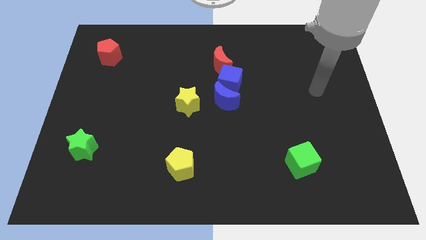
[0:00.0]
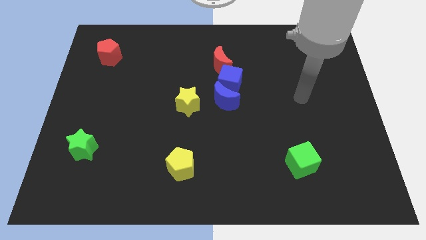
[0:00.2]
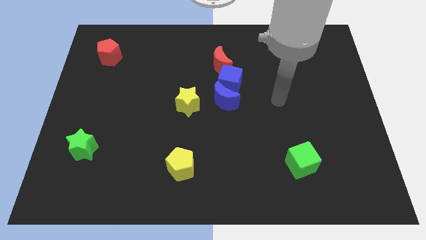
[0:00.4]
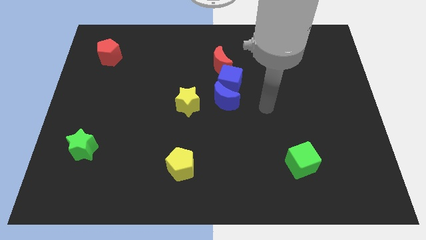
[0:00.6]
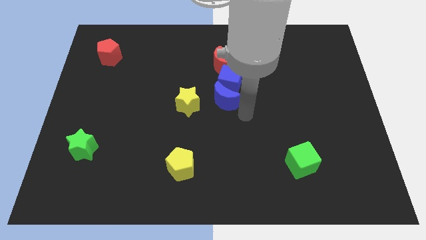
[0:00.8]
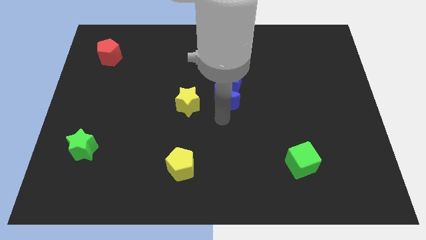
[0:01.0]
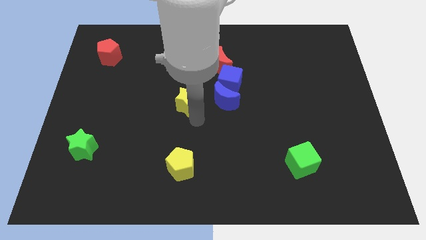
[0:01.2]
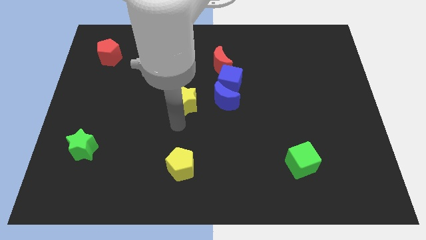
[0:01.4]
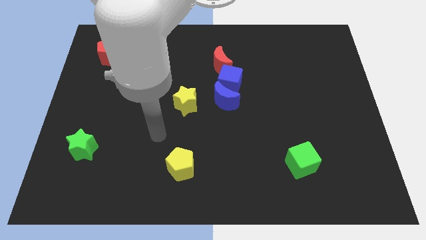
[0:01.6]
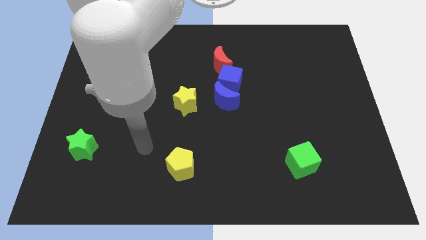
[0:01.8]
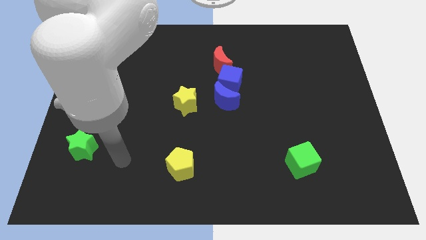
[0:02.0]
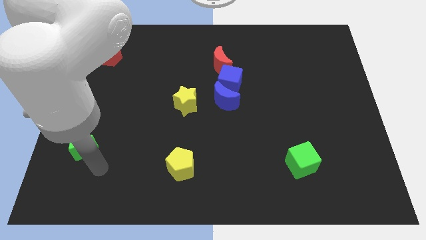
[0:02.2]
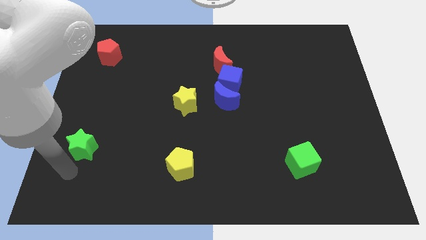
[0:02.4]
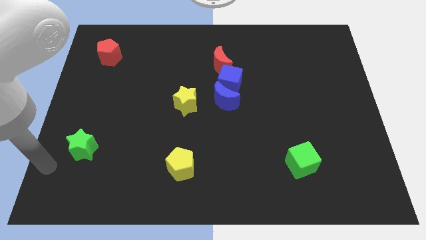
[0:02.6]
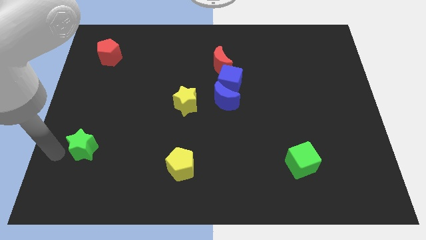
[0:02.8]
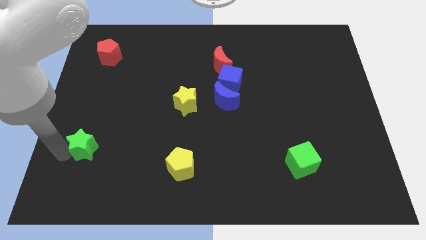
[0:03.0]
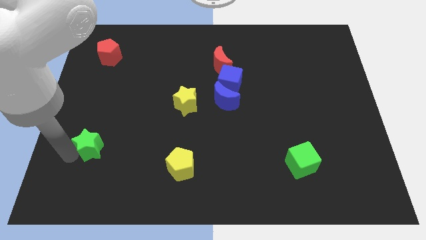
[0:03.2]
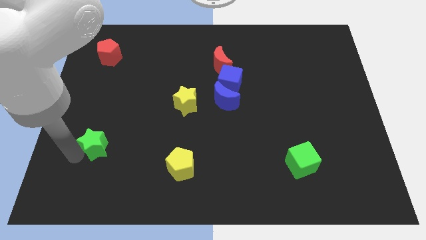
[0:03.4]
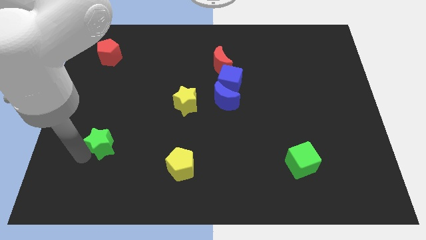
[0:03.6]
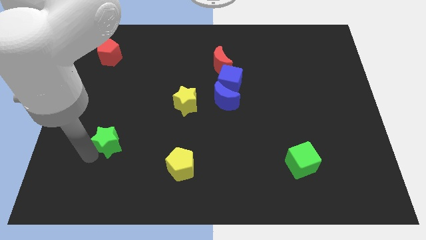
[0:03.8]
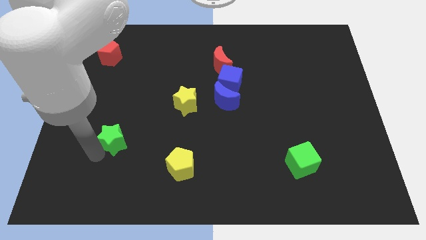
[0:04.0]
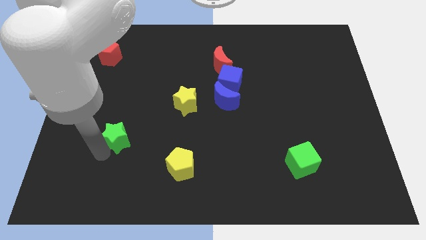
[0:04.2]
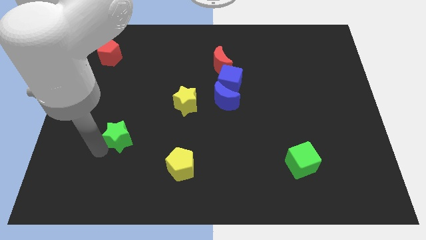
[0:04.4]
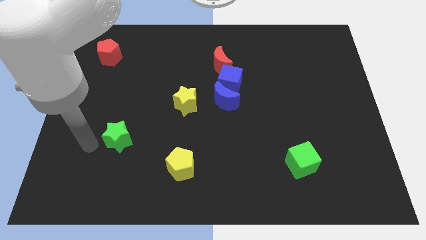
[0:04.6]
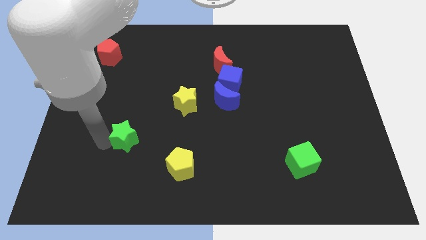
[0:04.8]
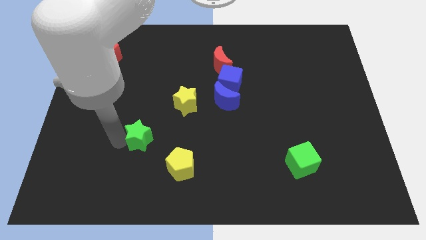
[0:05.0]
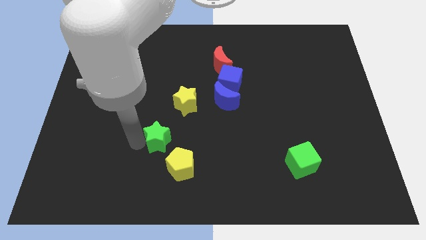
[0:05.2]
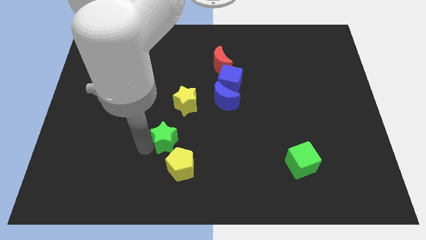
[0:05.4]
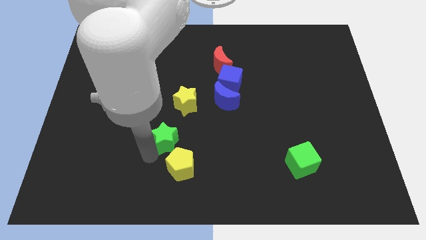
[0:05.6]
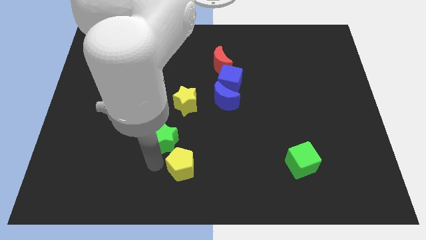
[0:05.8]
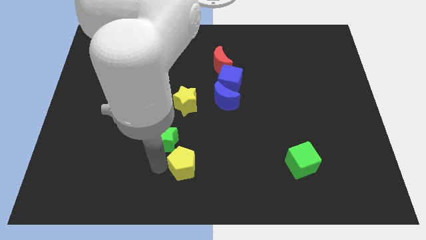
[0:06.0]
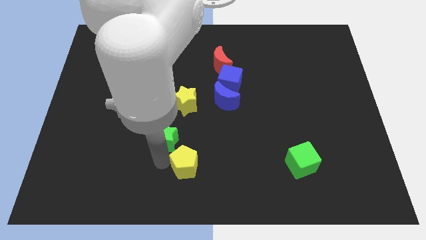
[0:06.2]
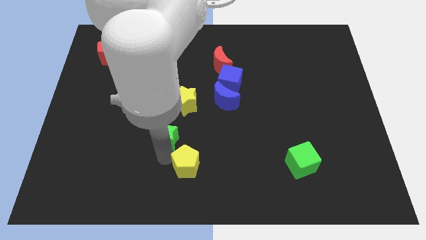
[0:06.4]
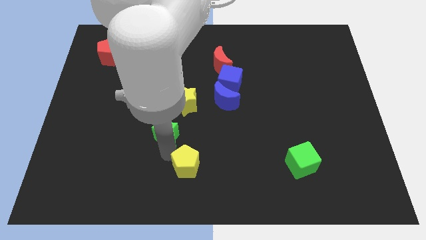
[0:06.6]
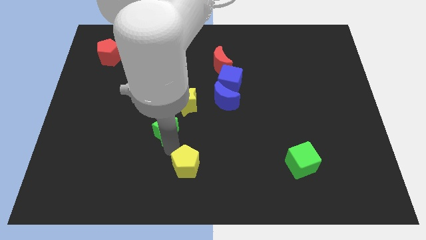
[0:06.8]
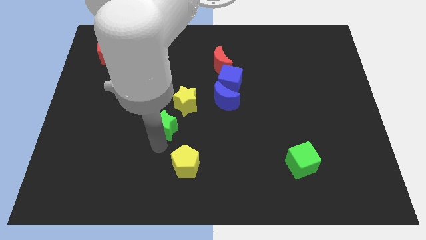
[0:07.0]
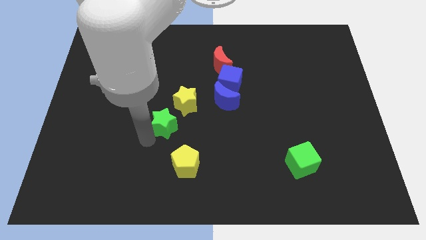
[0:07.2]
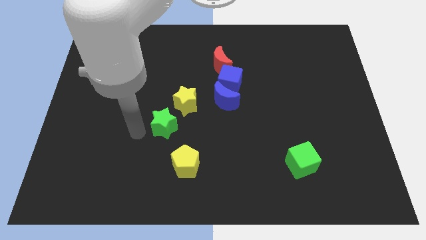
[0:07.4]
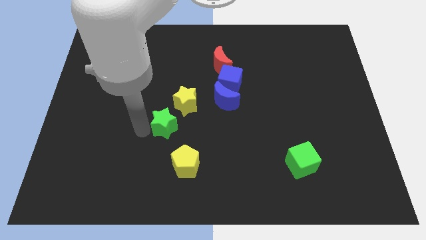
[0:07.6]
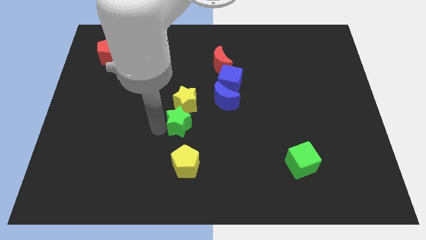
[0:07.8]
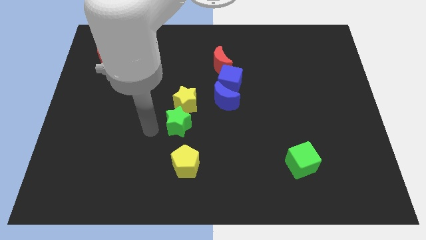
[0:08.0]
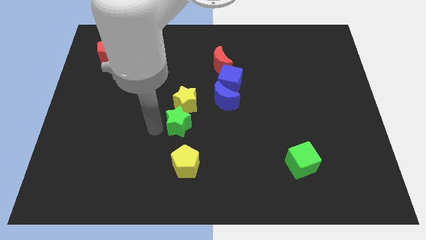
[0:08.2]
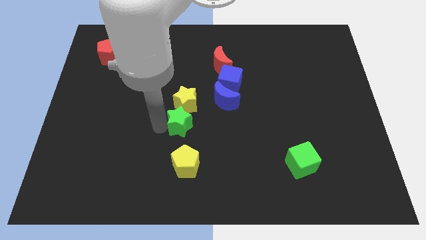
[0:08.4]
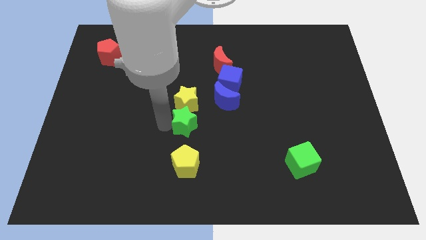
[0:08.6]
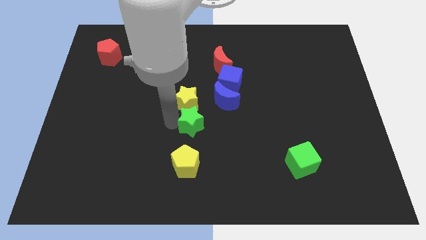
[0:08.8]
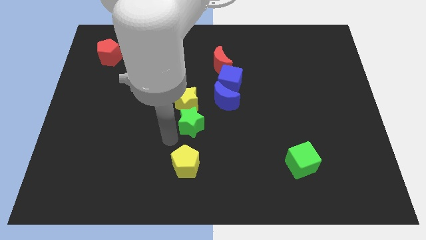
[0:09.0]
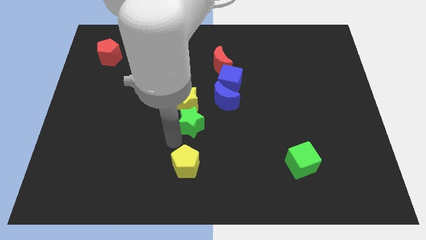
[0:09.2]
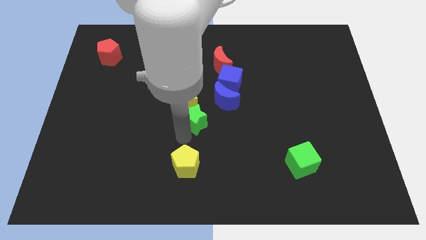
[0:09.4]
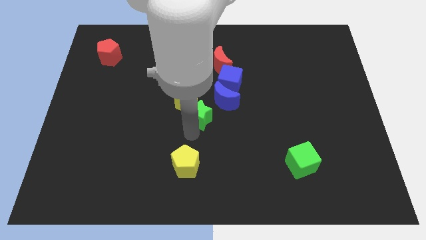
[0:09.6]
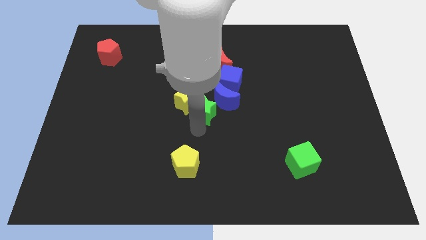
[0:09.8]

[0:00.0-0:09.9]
move the green star to the blue moon

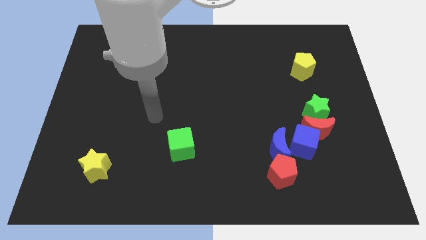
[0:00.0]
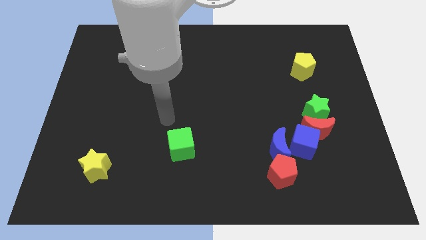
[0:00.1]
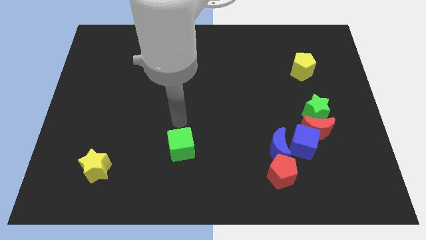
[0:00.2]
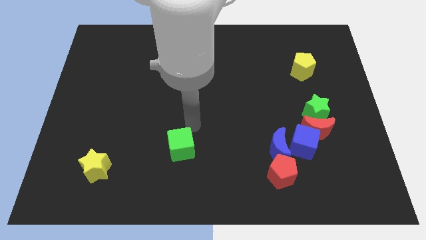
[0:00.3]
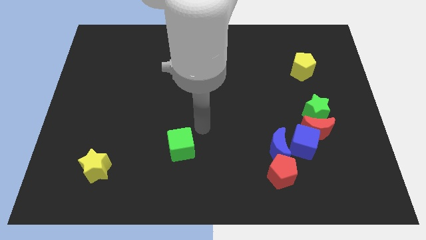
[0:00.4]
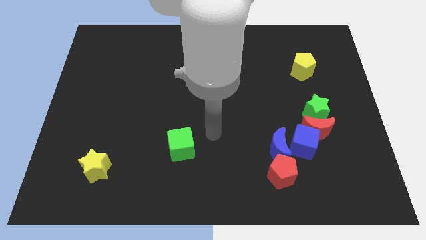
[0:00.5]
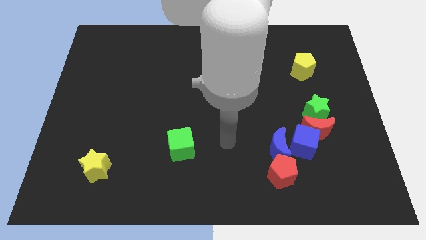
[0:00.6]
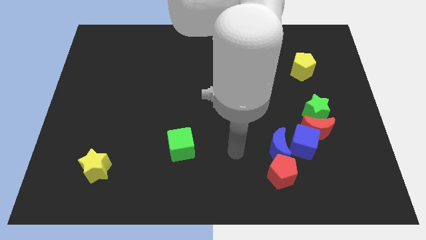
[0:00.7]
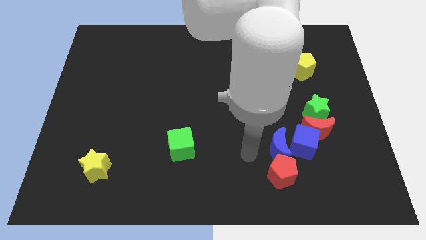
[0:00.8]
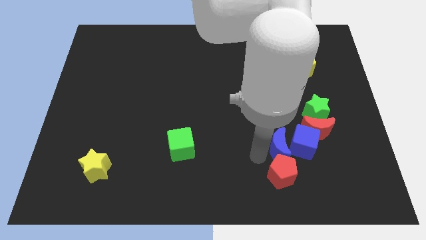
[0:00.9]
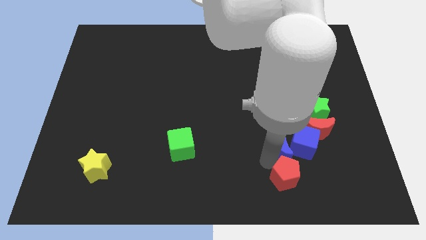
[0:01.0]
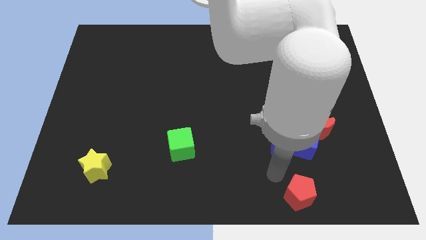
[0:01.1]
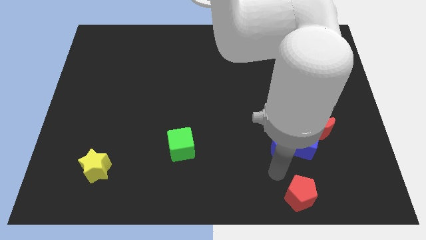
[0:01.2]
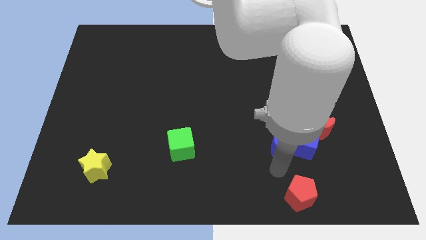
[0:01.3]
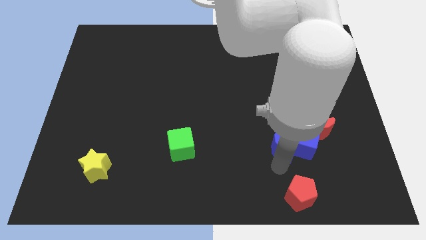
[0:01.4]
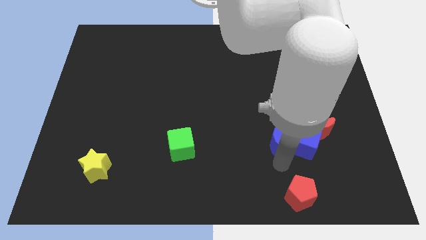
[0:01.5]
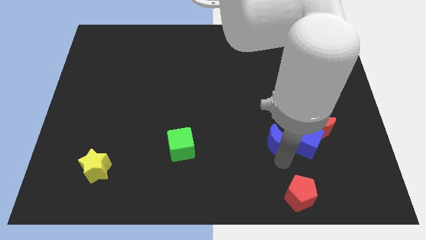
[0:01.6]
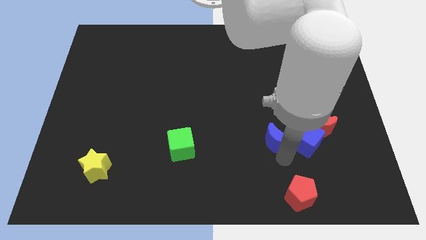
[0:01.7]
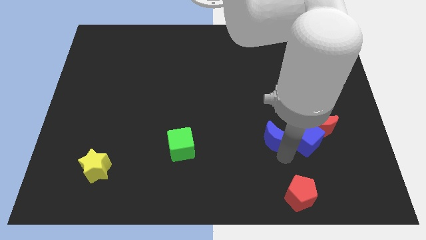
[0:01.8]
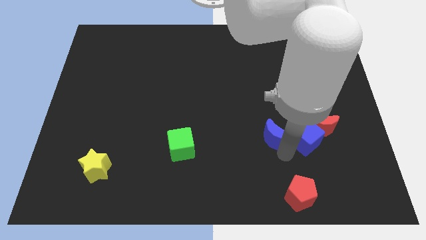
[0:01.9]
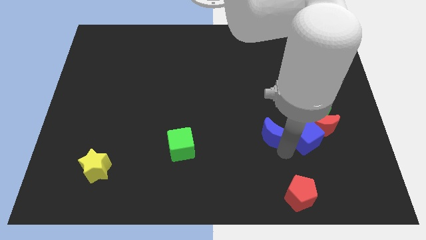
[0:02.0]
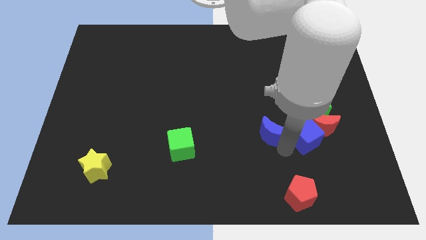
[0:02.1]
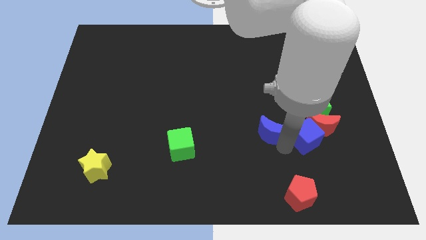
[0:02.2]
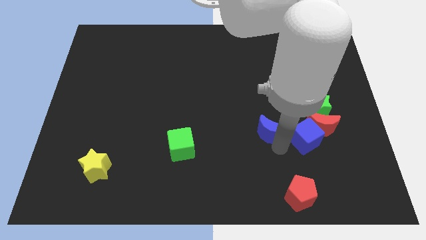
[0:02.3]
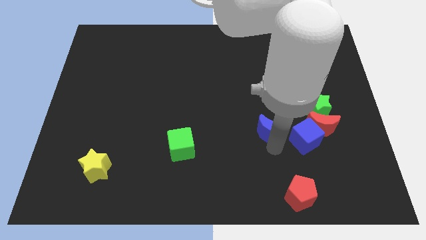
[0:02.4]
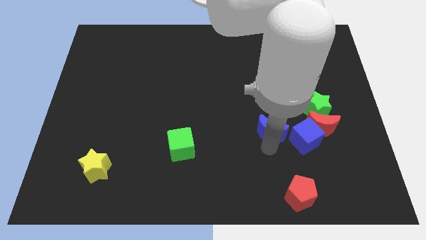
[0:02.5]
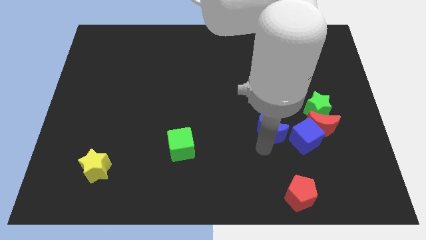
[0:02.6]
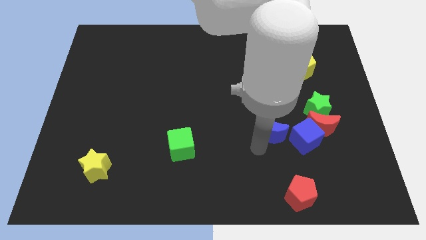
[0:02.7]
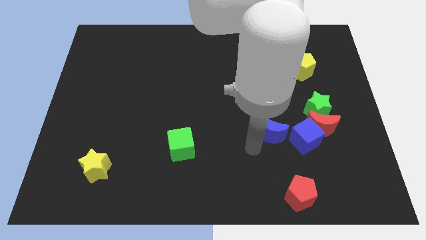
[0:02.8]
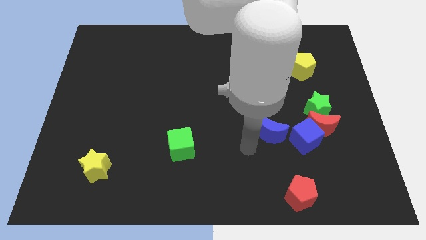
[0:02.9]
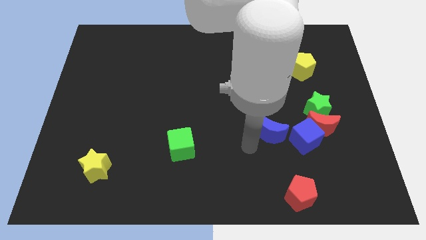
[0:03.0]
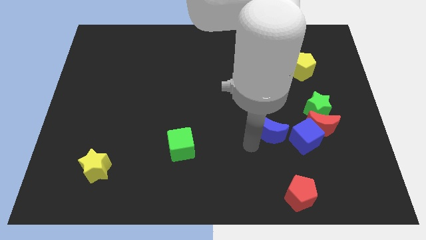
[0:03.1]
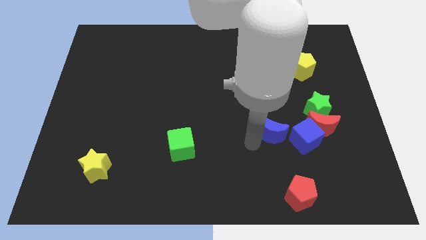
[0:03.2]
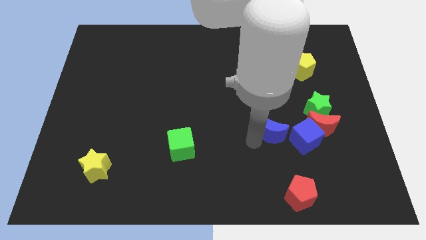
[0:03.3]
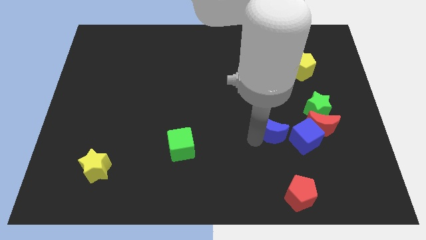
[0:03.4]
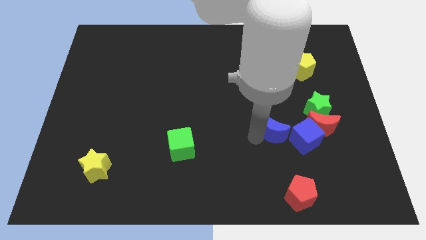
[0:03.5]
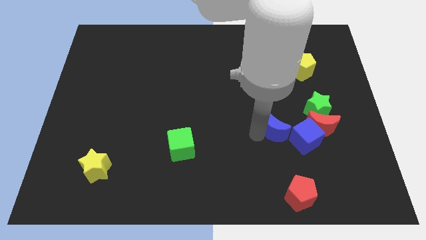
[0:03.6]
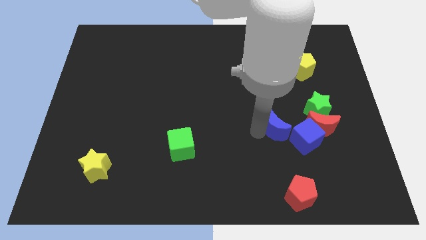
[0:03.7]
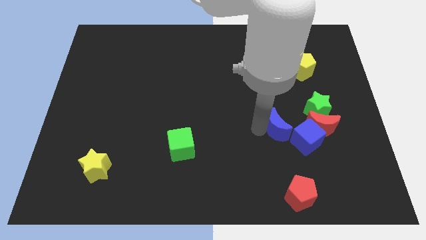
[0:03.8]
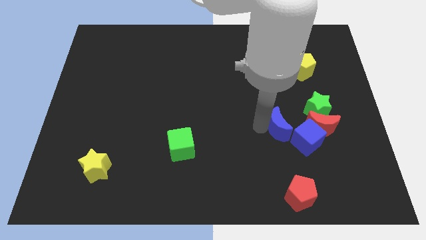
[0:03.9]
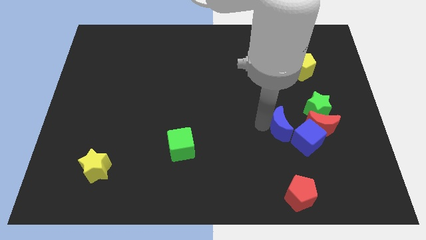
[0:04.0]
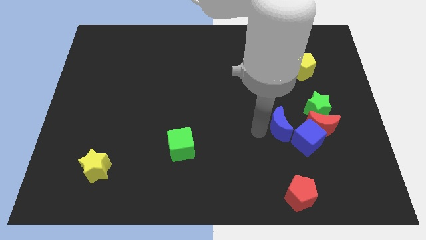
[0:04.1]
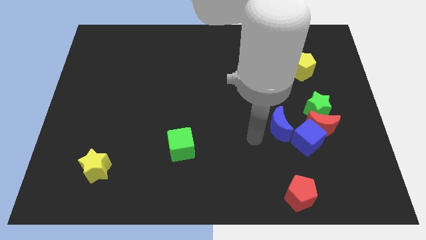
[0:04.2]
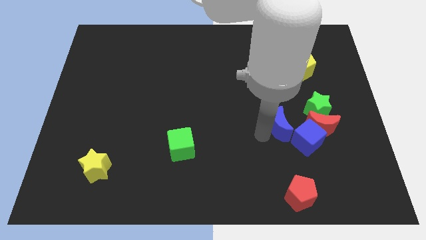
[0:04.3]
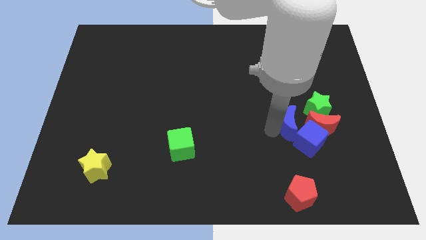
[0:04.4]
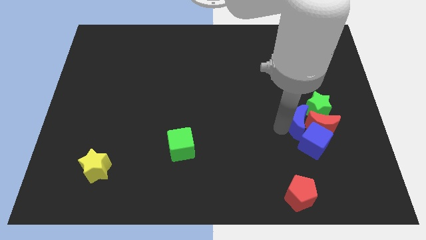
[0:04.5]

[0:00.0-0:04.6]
slide the blue moon close to the green star
